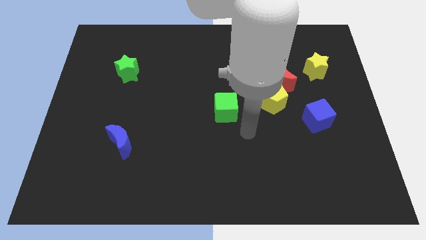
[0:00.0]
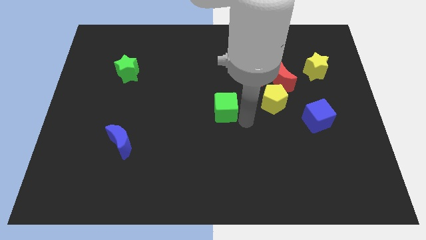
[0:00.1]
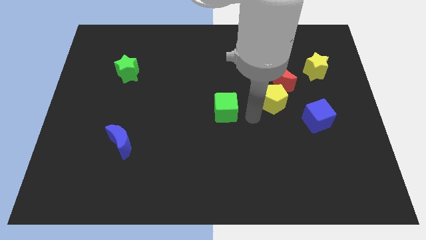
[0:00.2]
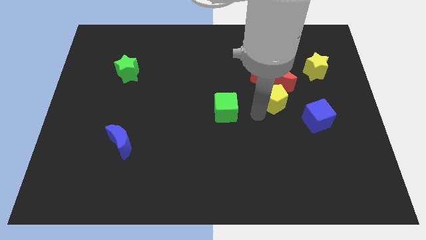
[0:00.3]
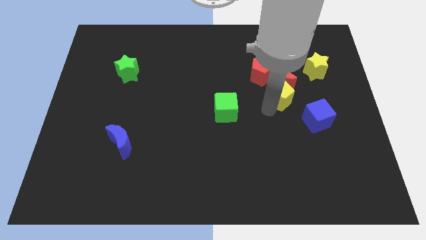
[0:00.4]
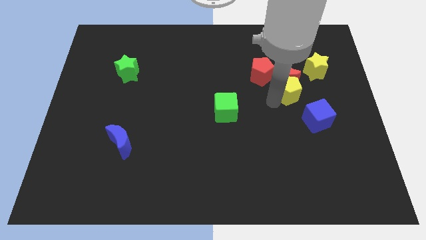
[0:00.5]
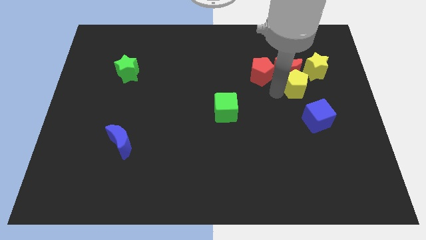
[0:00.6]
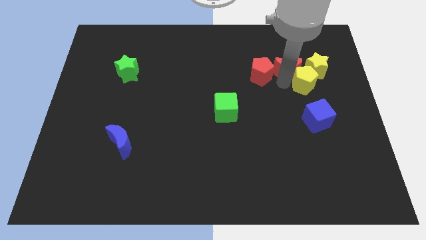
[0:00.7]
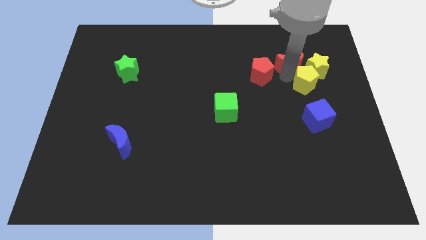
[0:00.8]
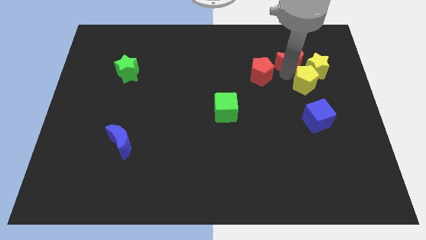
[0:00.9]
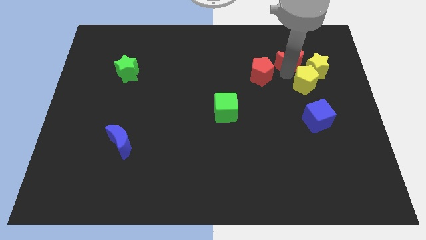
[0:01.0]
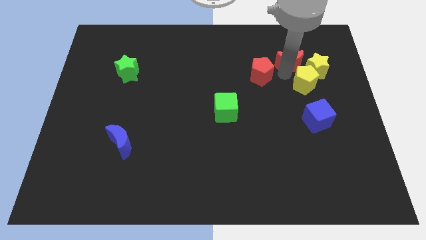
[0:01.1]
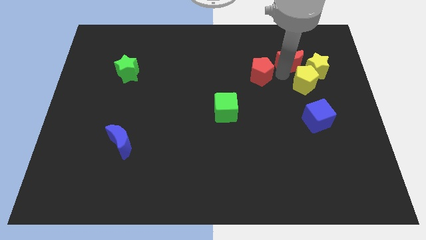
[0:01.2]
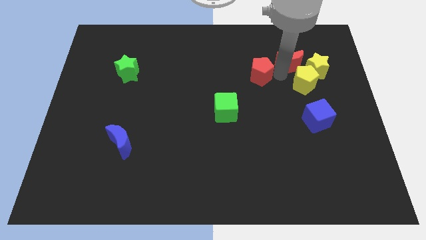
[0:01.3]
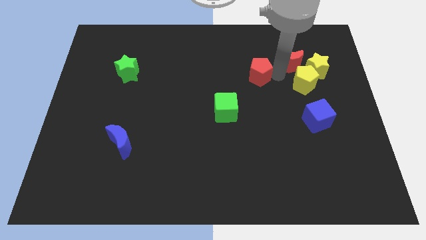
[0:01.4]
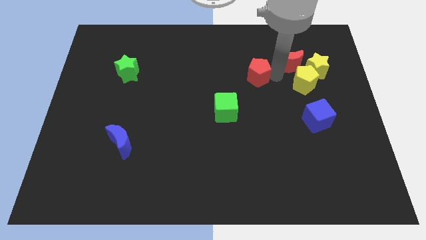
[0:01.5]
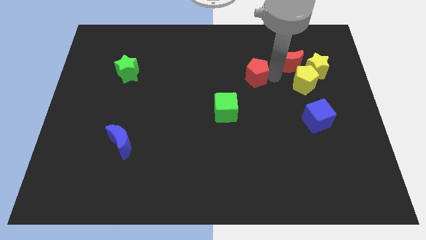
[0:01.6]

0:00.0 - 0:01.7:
move the red pentagon away from the red moon and yellow pentagon

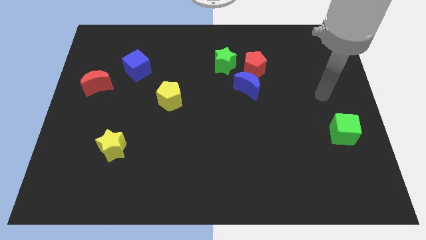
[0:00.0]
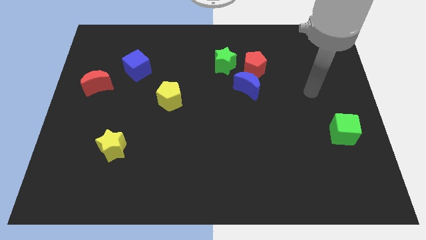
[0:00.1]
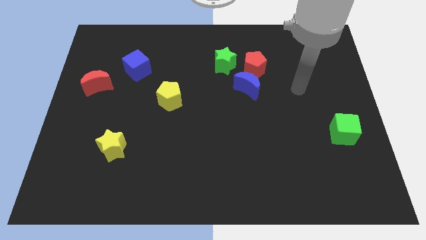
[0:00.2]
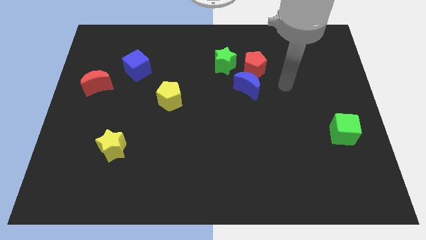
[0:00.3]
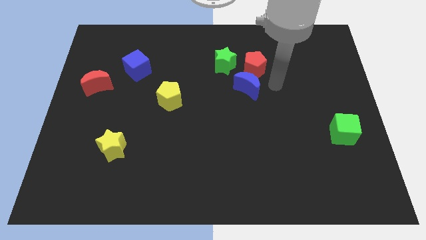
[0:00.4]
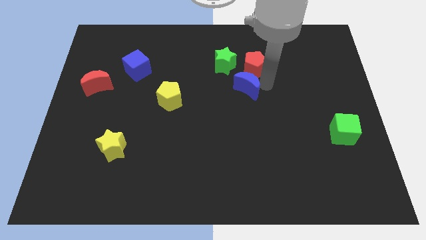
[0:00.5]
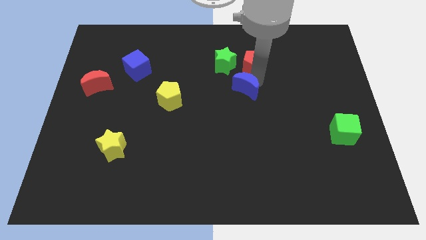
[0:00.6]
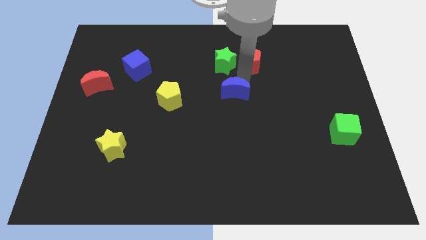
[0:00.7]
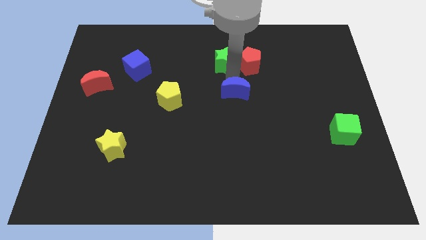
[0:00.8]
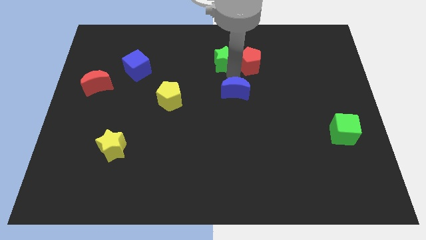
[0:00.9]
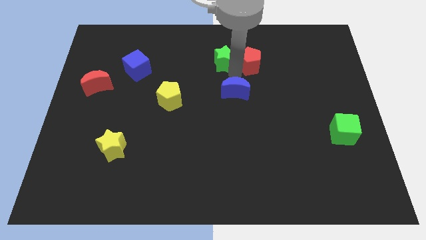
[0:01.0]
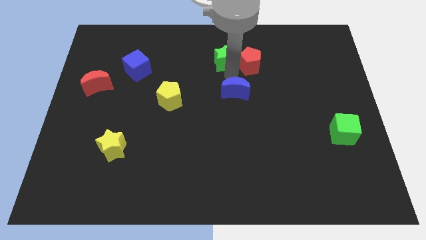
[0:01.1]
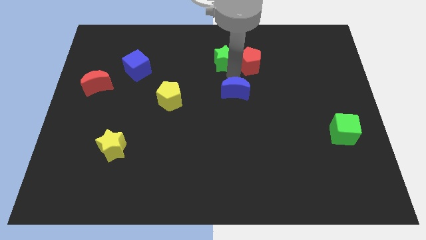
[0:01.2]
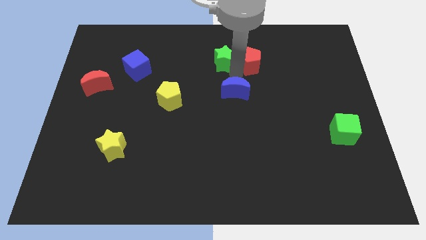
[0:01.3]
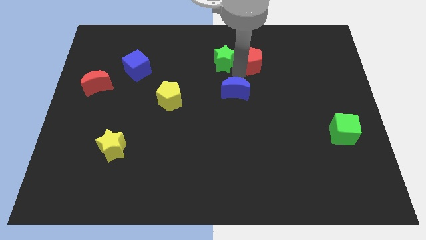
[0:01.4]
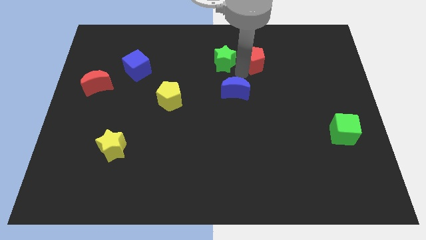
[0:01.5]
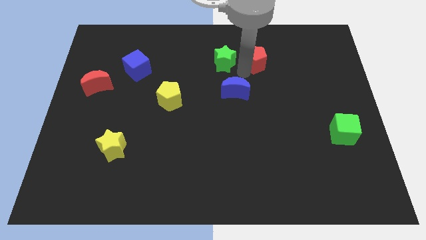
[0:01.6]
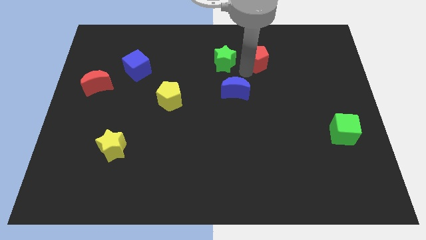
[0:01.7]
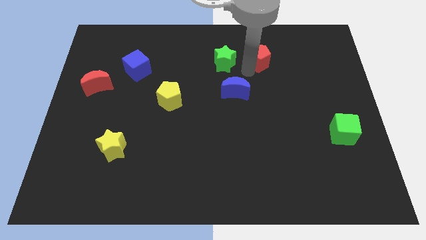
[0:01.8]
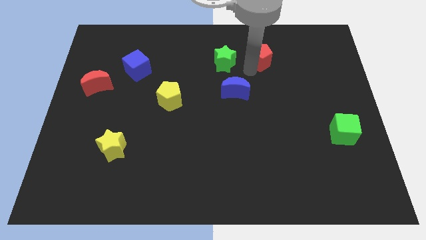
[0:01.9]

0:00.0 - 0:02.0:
move the red pentagon away from the blue moon and green star

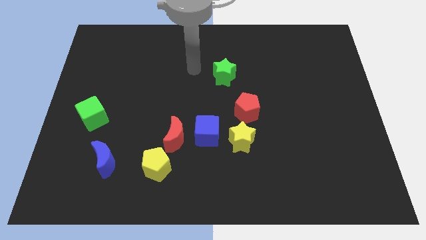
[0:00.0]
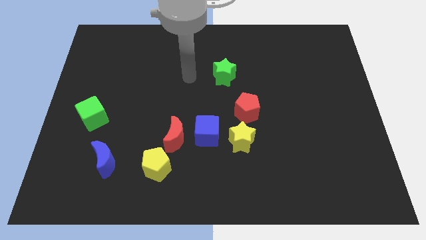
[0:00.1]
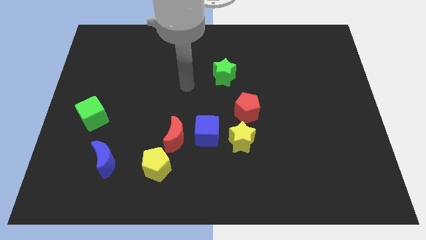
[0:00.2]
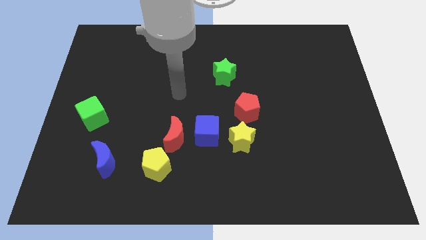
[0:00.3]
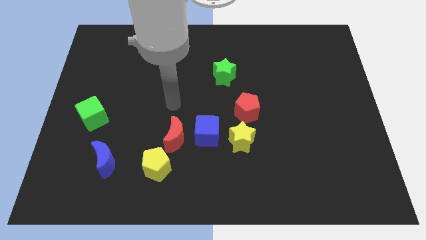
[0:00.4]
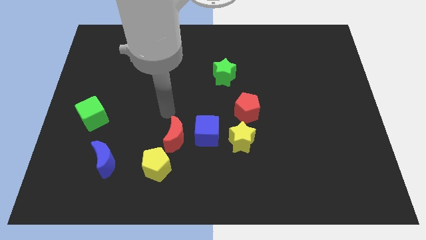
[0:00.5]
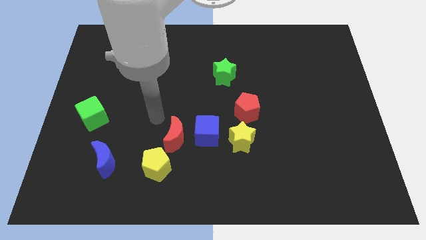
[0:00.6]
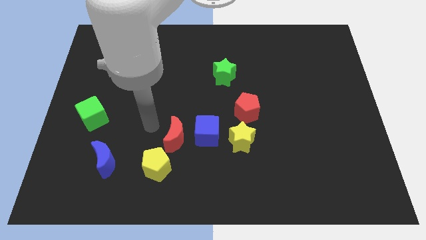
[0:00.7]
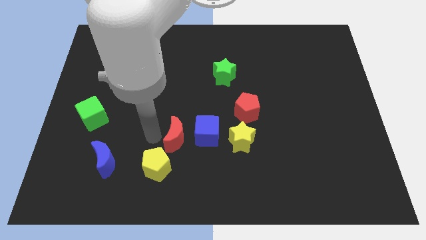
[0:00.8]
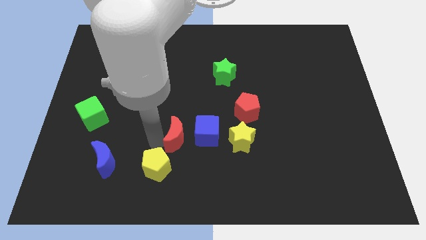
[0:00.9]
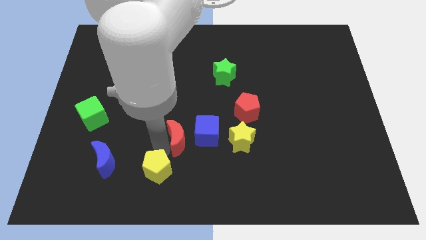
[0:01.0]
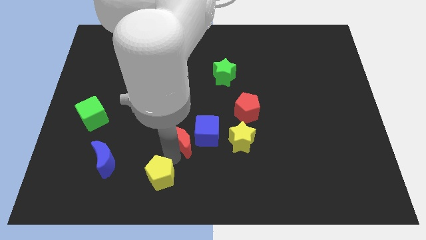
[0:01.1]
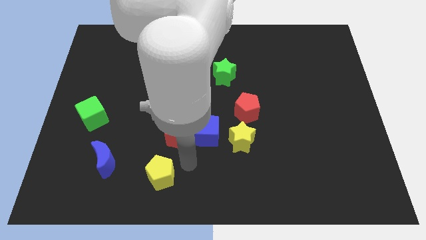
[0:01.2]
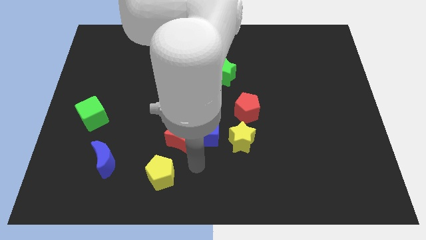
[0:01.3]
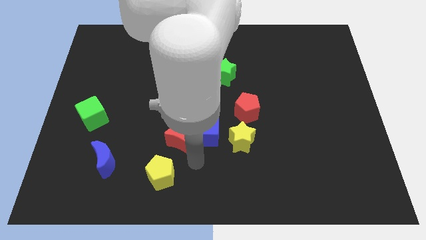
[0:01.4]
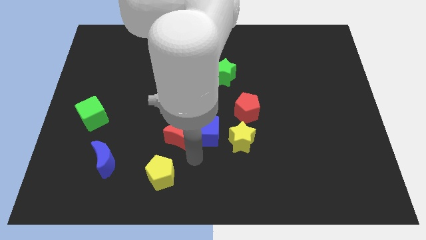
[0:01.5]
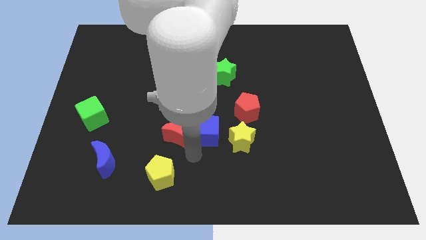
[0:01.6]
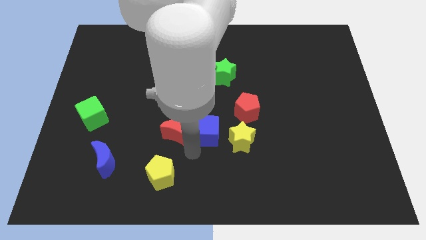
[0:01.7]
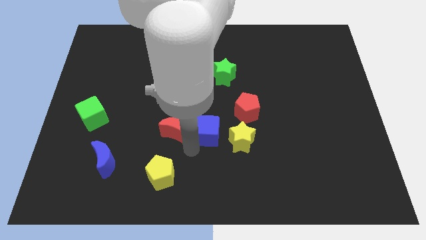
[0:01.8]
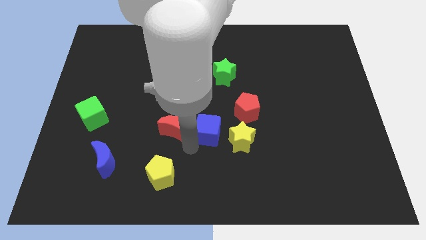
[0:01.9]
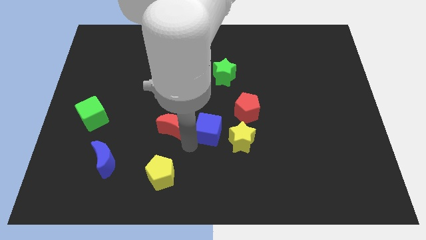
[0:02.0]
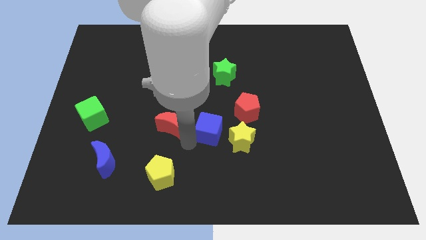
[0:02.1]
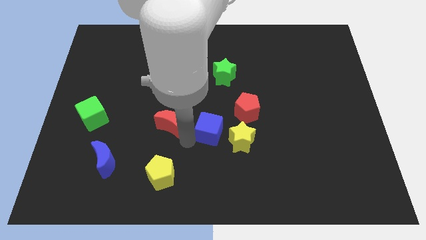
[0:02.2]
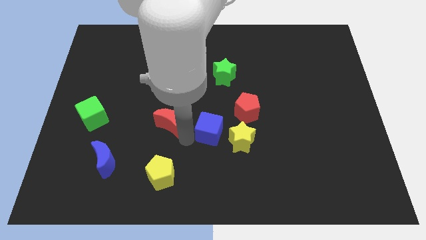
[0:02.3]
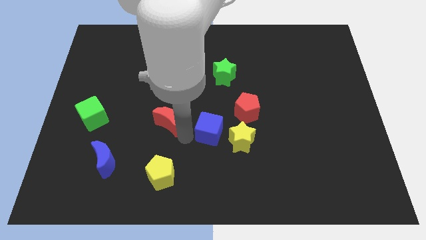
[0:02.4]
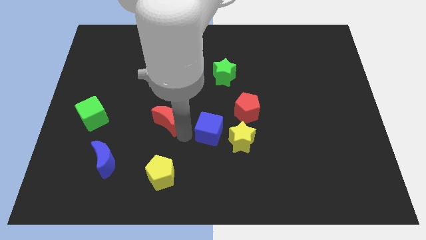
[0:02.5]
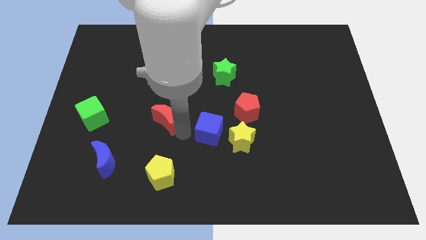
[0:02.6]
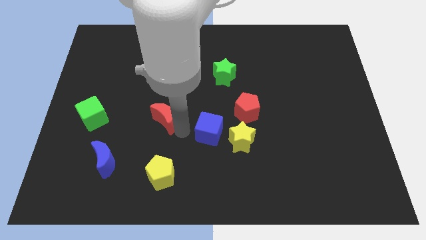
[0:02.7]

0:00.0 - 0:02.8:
separate the red moon from the blue cube and yellow pentagon

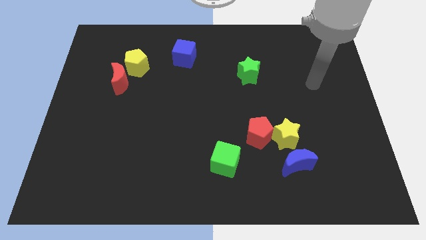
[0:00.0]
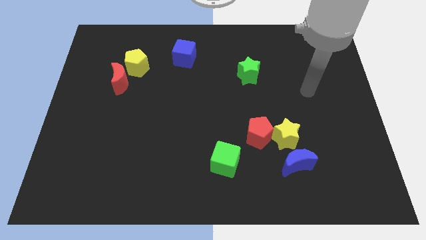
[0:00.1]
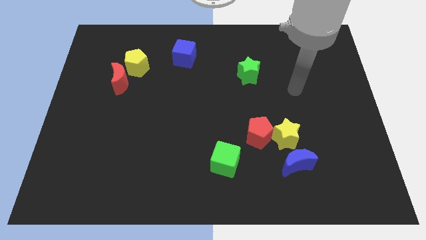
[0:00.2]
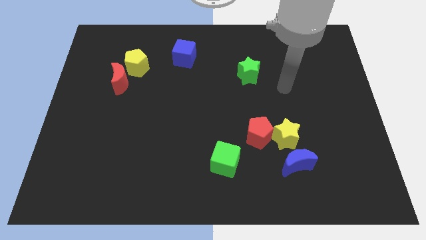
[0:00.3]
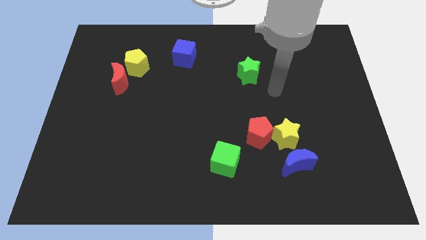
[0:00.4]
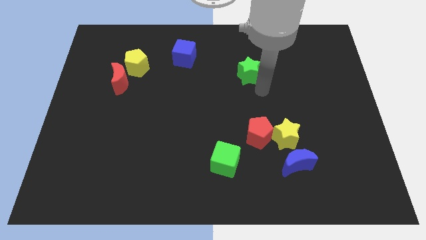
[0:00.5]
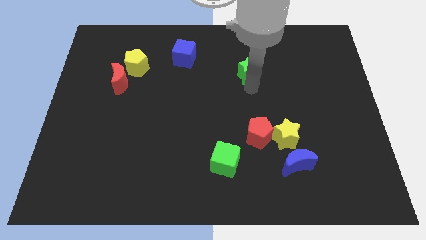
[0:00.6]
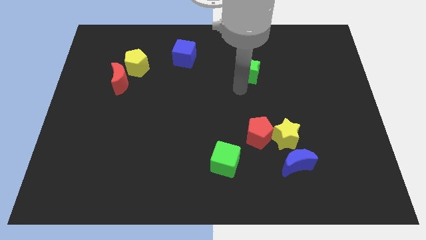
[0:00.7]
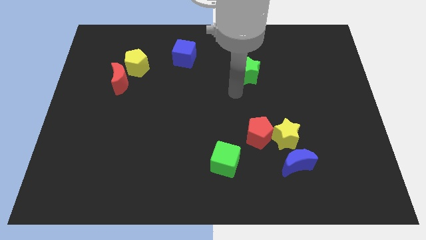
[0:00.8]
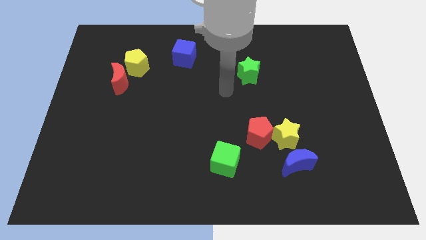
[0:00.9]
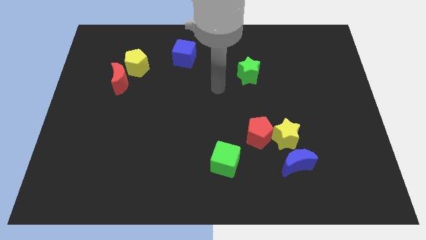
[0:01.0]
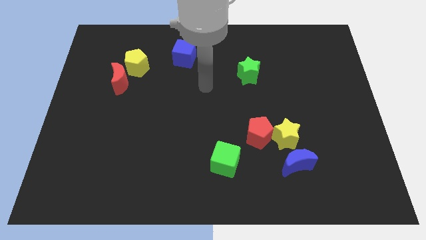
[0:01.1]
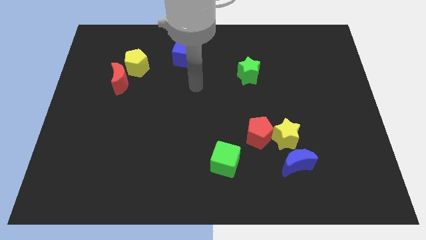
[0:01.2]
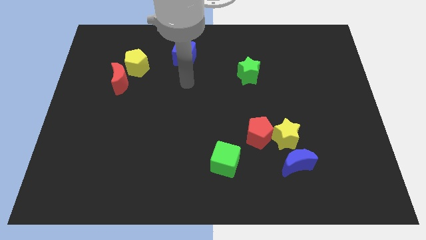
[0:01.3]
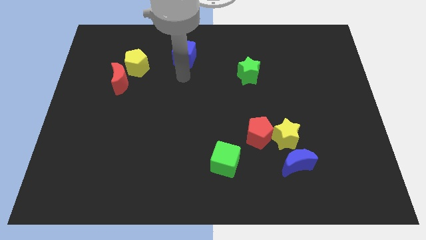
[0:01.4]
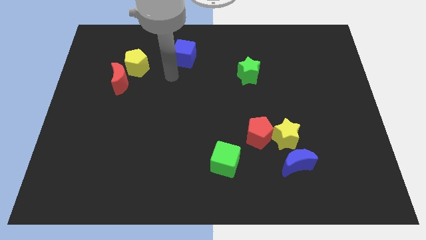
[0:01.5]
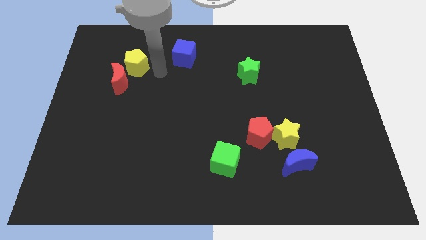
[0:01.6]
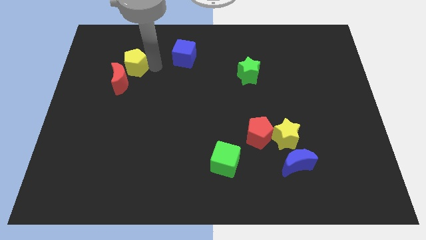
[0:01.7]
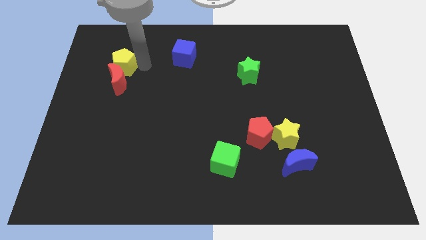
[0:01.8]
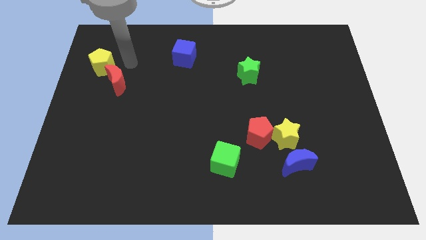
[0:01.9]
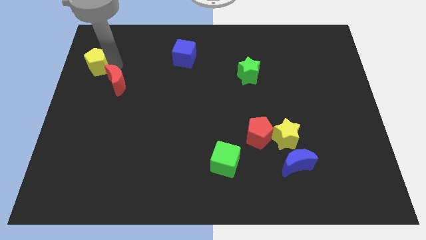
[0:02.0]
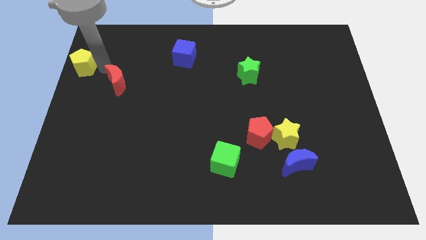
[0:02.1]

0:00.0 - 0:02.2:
separate the red moon from the yellow pentagon

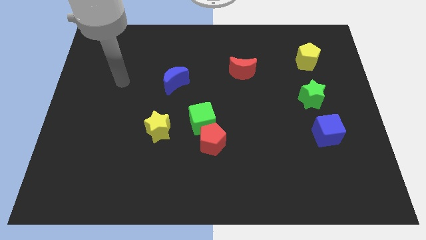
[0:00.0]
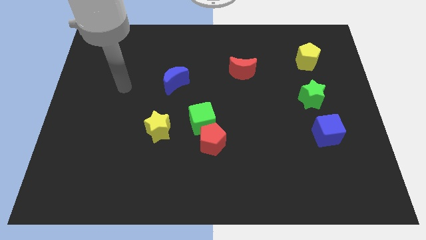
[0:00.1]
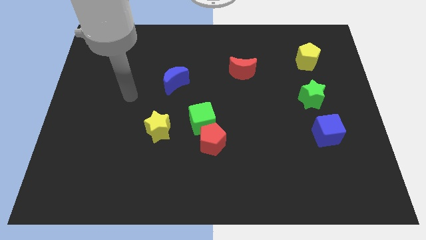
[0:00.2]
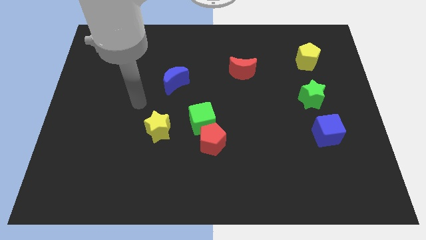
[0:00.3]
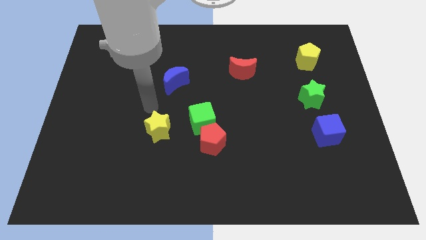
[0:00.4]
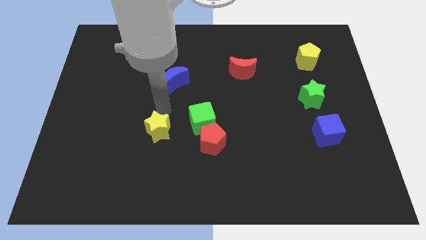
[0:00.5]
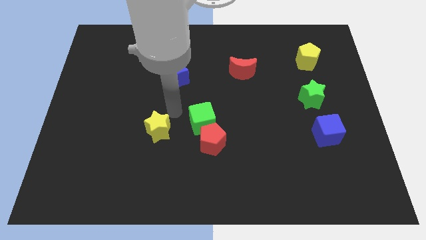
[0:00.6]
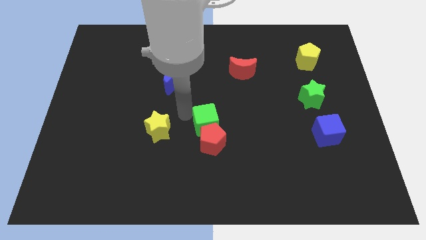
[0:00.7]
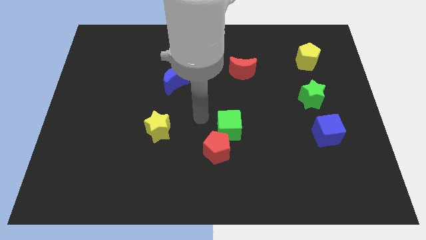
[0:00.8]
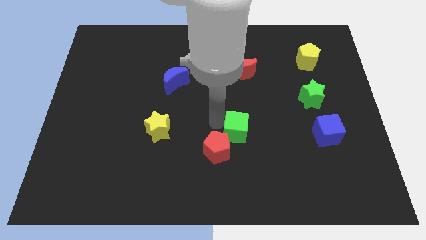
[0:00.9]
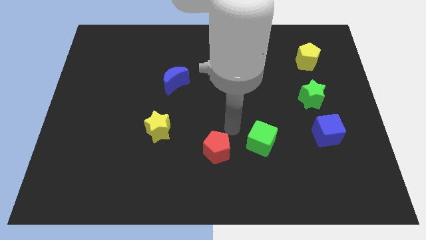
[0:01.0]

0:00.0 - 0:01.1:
pull the red pentagon apart from the green cube
